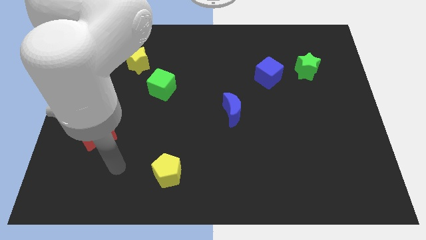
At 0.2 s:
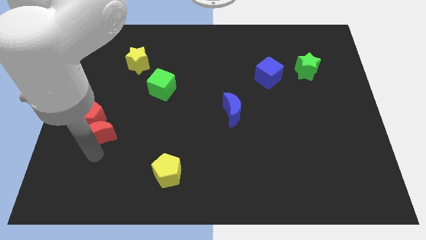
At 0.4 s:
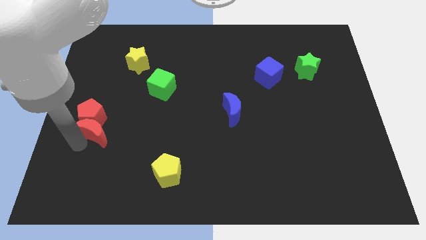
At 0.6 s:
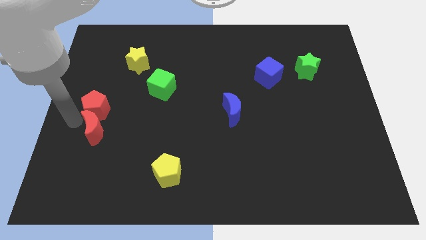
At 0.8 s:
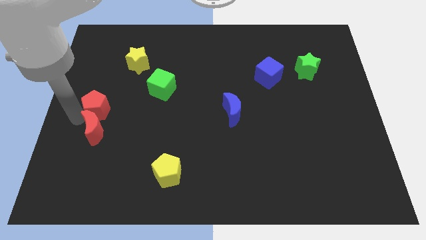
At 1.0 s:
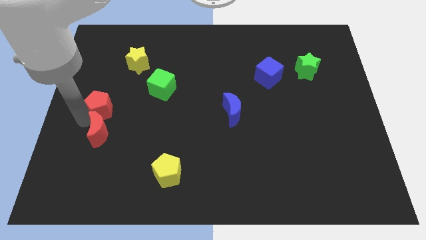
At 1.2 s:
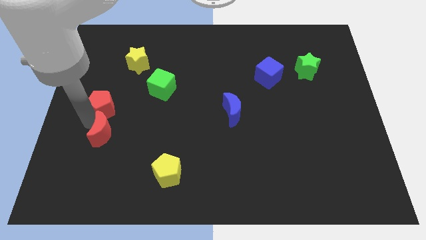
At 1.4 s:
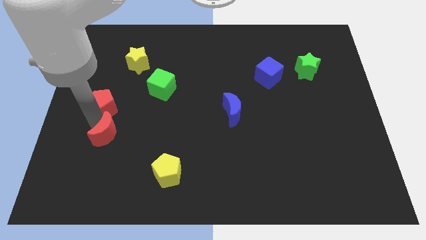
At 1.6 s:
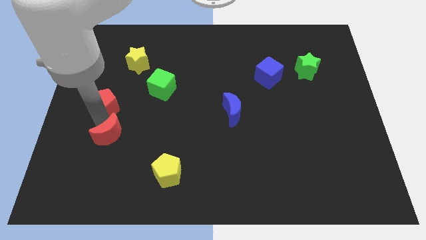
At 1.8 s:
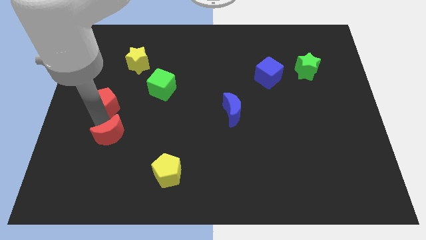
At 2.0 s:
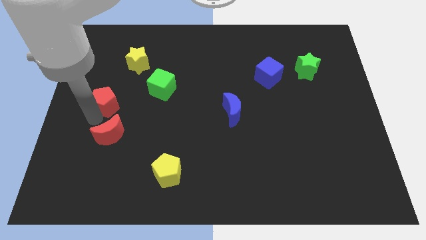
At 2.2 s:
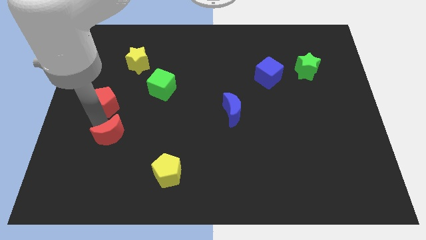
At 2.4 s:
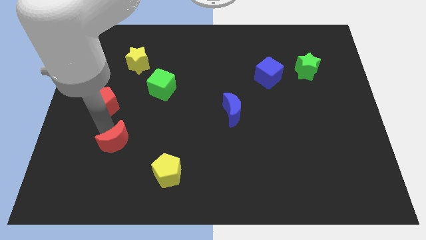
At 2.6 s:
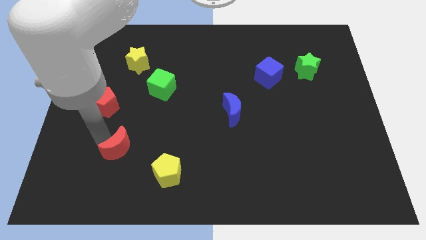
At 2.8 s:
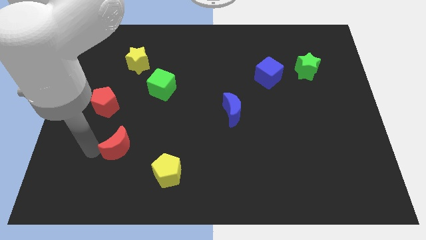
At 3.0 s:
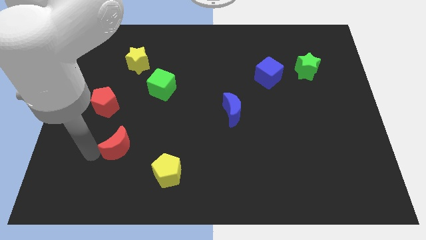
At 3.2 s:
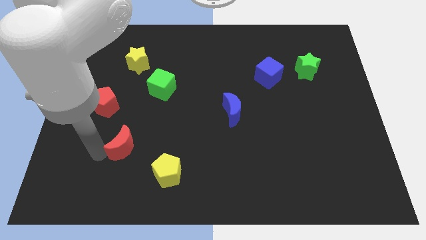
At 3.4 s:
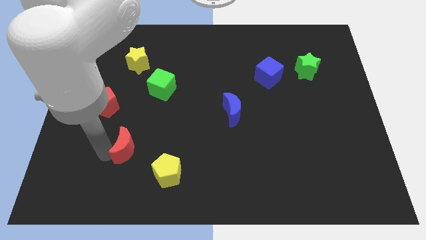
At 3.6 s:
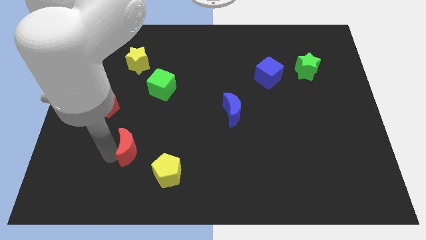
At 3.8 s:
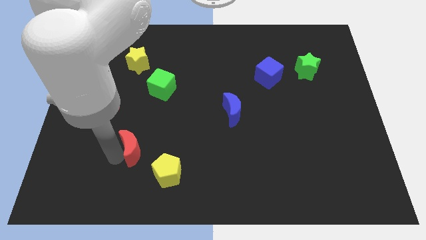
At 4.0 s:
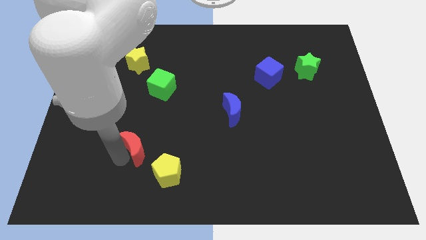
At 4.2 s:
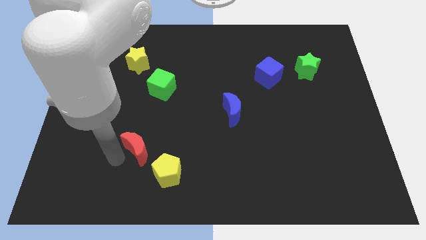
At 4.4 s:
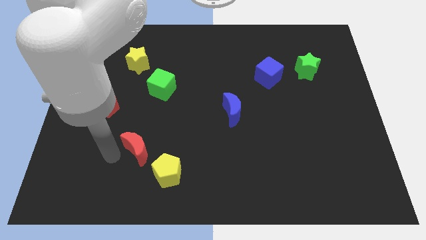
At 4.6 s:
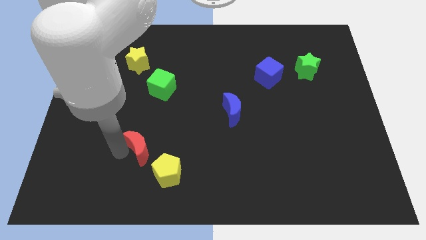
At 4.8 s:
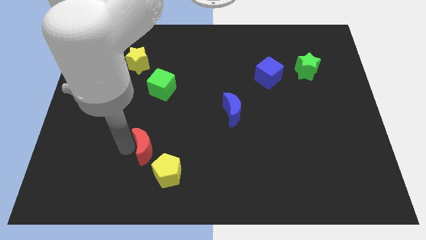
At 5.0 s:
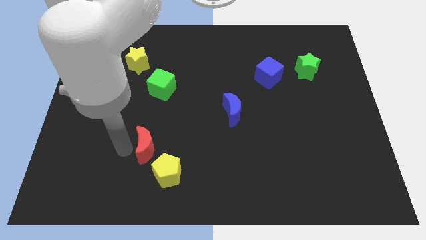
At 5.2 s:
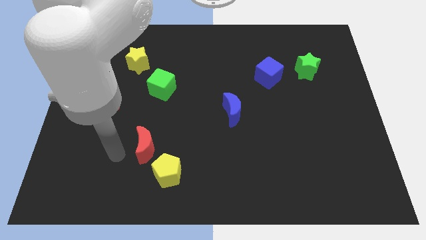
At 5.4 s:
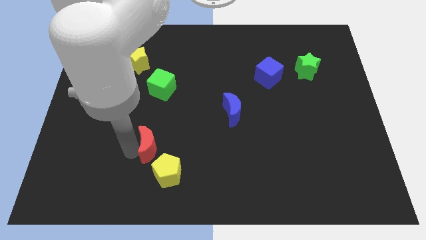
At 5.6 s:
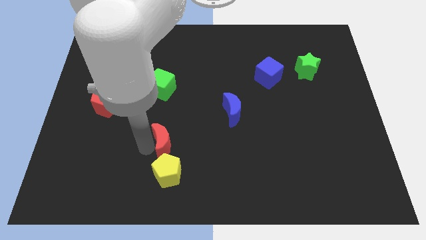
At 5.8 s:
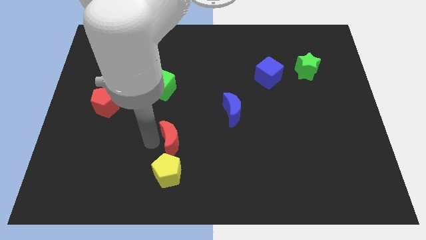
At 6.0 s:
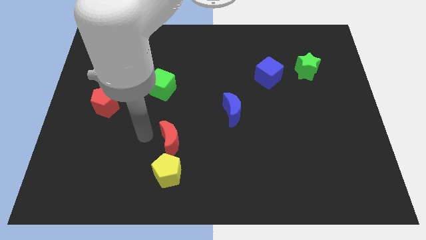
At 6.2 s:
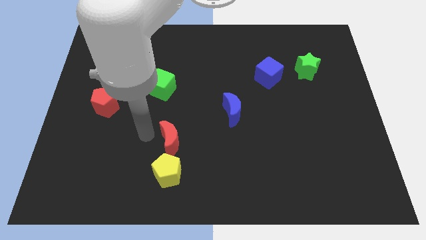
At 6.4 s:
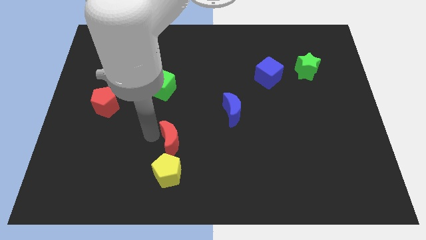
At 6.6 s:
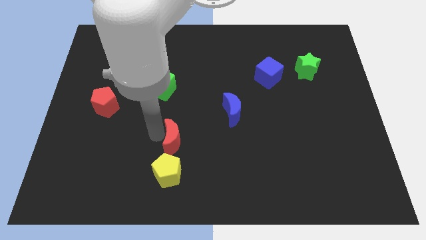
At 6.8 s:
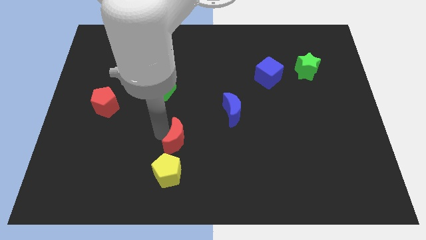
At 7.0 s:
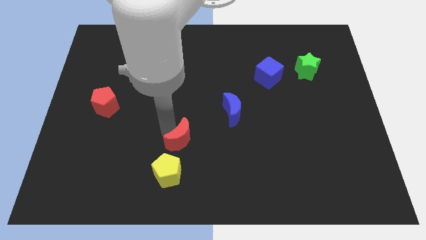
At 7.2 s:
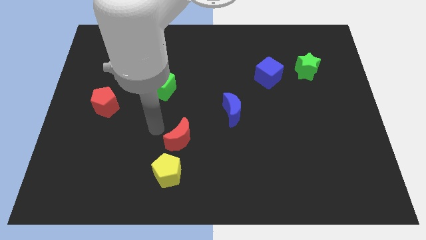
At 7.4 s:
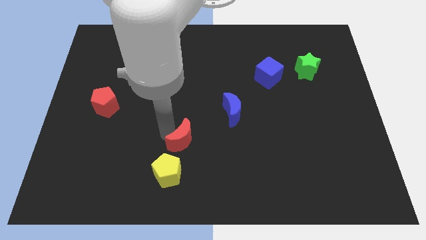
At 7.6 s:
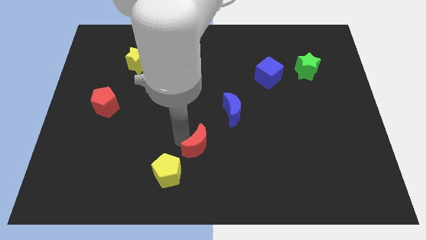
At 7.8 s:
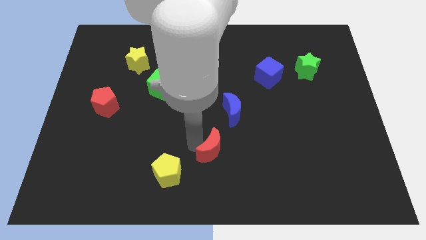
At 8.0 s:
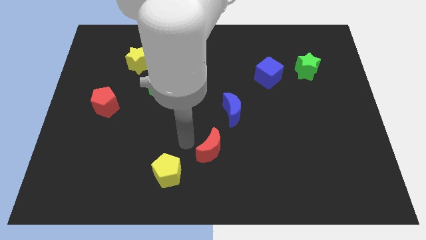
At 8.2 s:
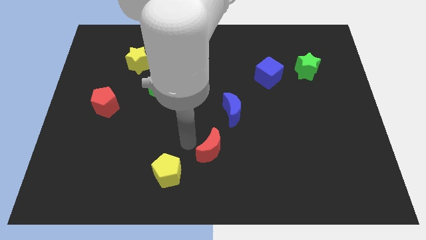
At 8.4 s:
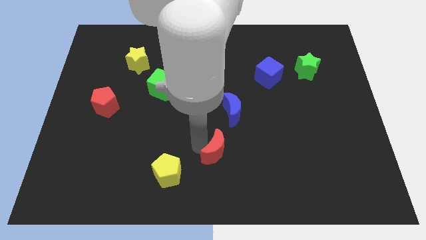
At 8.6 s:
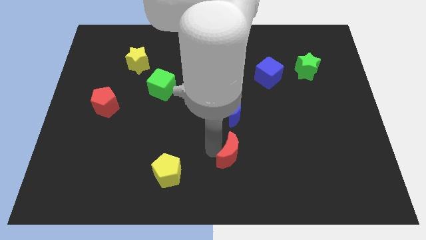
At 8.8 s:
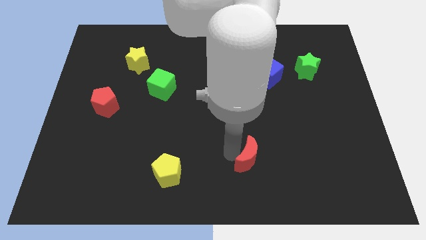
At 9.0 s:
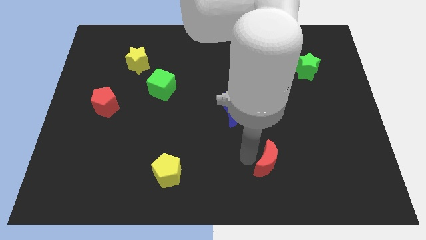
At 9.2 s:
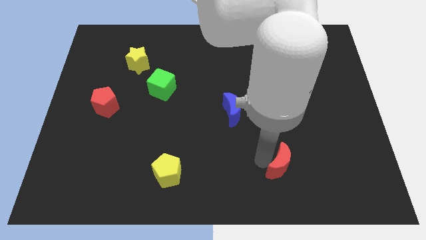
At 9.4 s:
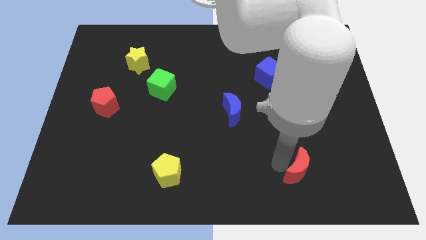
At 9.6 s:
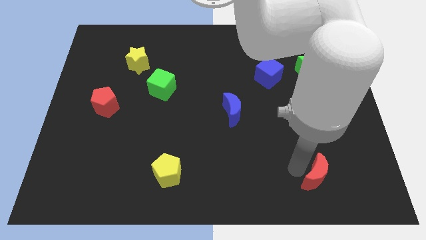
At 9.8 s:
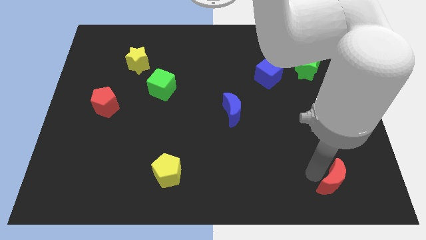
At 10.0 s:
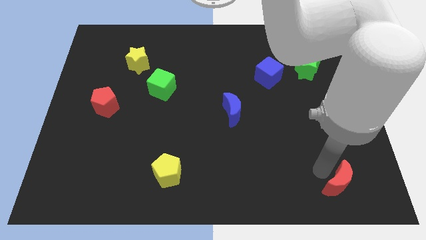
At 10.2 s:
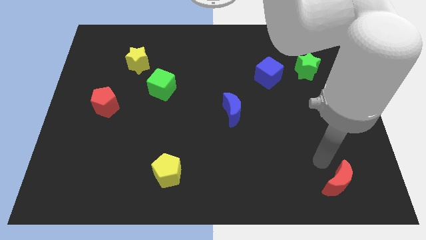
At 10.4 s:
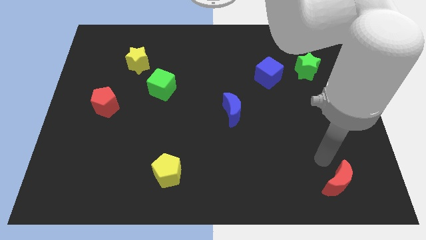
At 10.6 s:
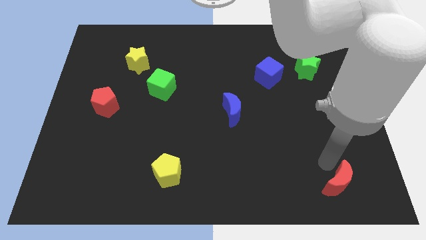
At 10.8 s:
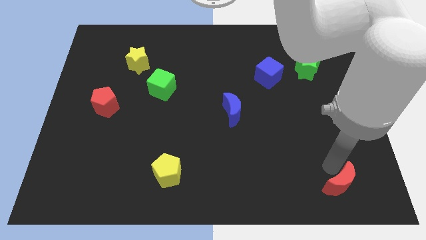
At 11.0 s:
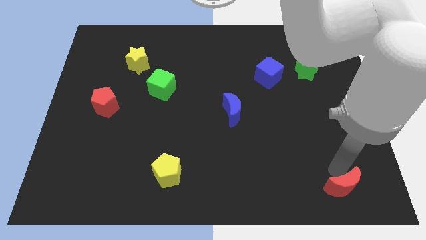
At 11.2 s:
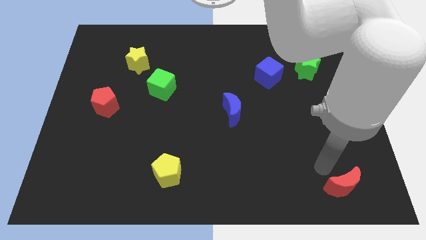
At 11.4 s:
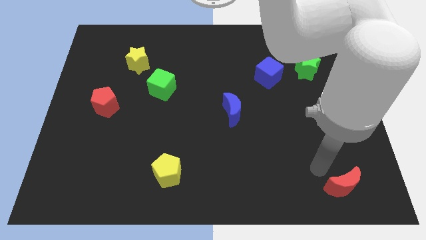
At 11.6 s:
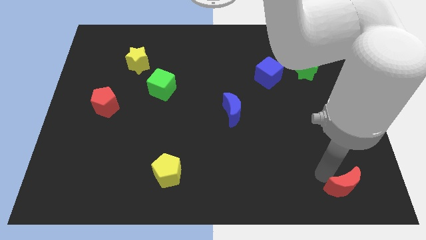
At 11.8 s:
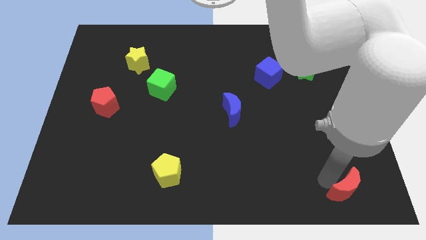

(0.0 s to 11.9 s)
move the red moon to the lower right corner
